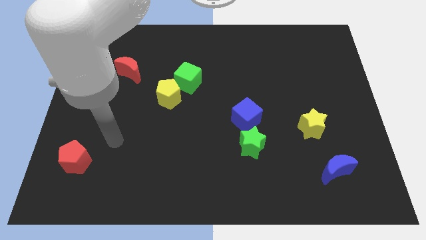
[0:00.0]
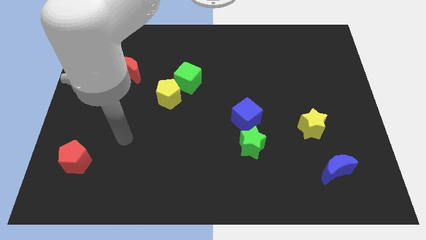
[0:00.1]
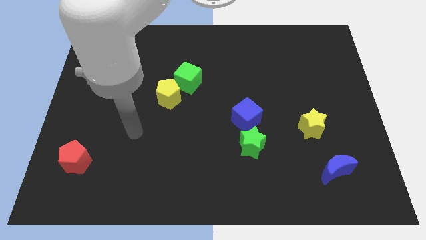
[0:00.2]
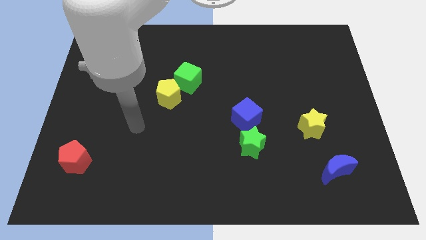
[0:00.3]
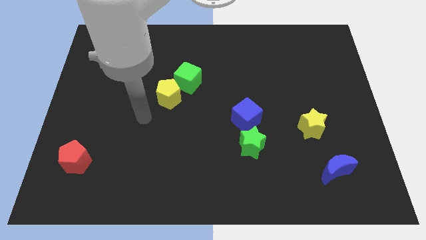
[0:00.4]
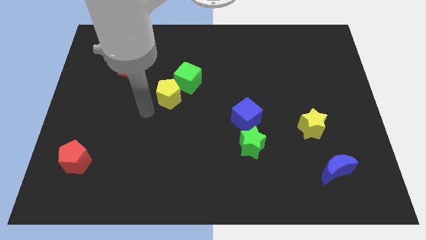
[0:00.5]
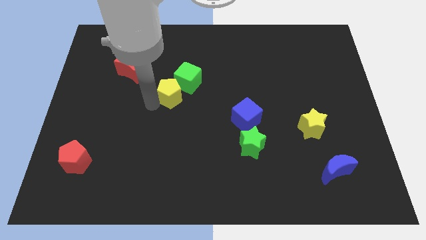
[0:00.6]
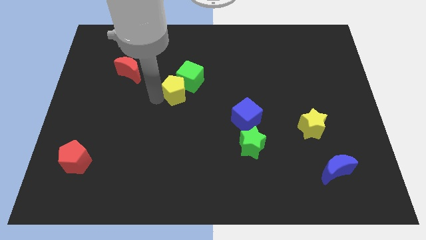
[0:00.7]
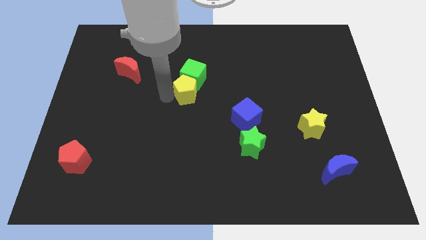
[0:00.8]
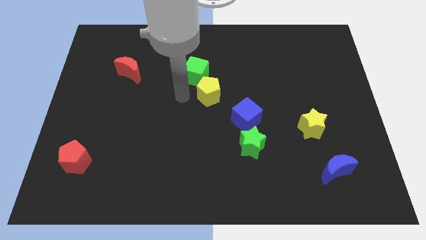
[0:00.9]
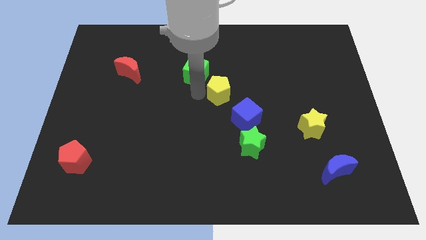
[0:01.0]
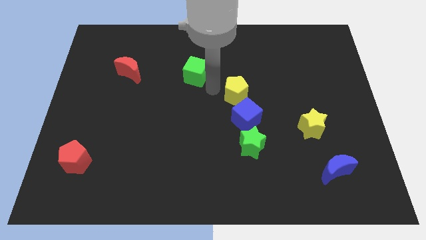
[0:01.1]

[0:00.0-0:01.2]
move the green cube away from the yellow pentagon

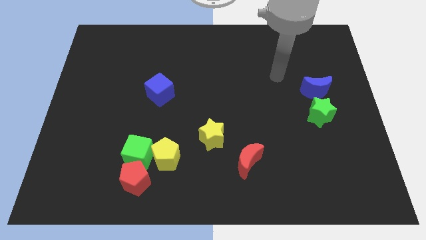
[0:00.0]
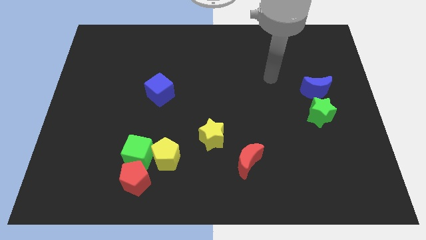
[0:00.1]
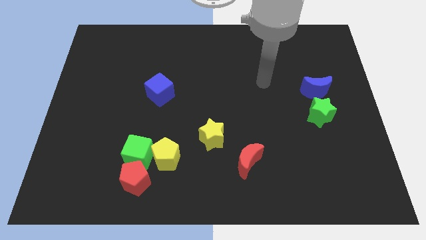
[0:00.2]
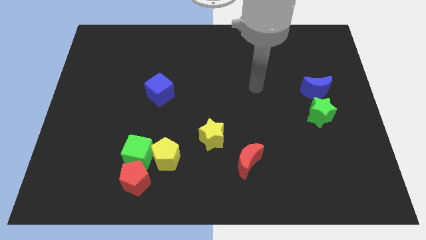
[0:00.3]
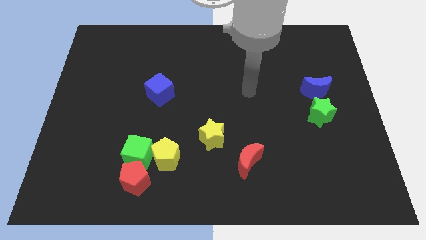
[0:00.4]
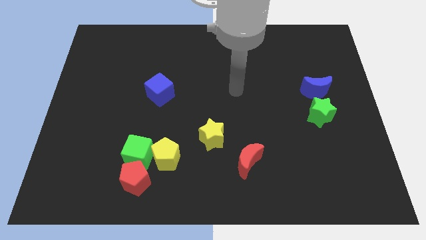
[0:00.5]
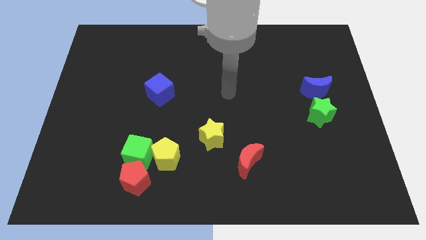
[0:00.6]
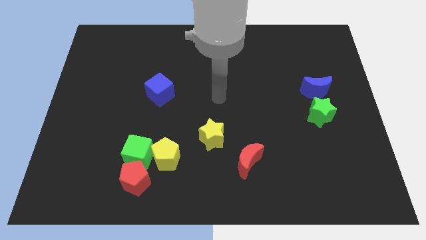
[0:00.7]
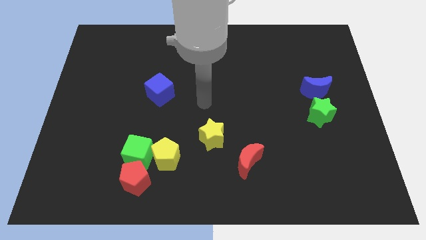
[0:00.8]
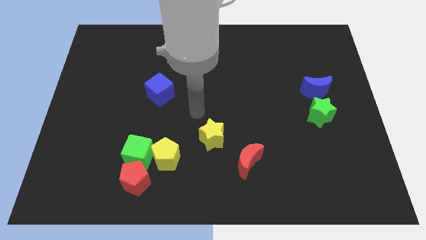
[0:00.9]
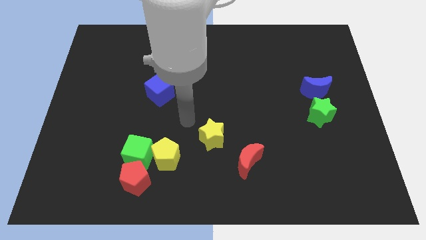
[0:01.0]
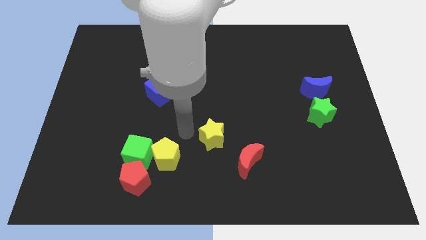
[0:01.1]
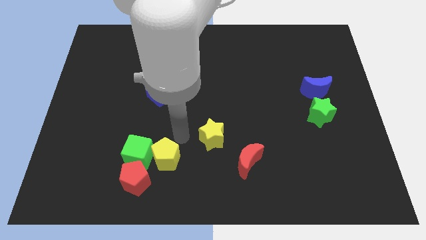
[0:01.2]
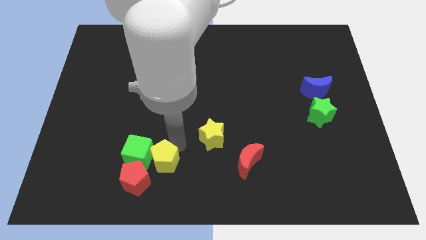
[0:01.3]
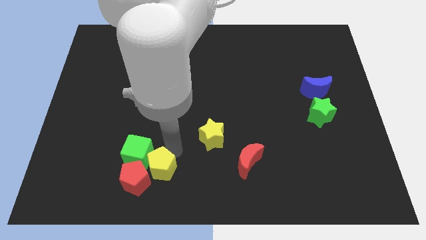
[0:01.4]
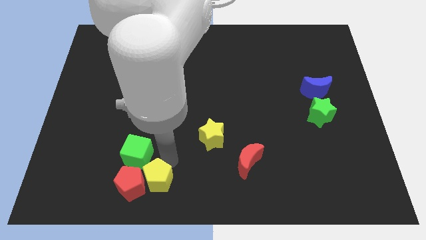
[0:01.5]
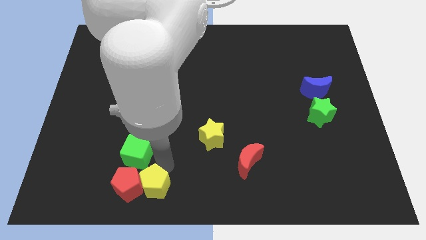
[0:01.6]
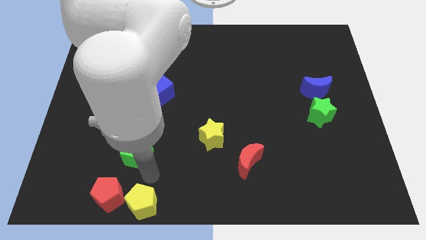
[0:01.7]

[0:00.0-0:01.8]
move the green cube away from the red pentagon and yellow pentagon

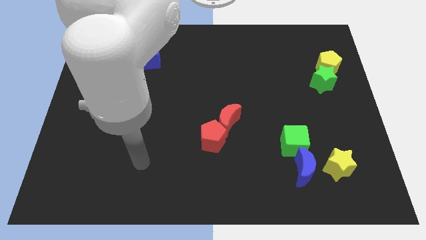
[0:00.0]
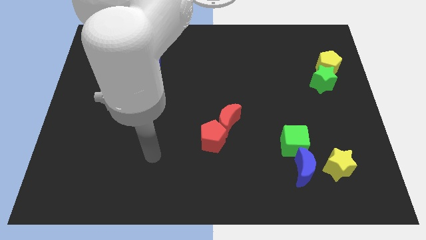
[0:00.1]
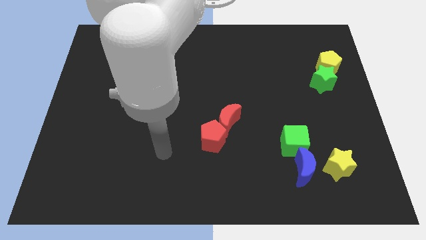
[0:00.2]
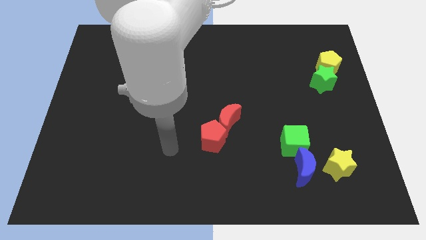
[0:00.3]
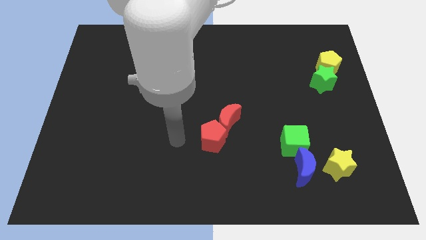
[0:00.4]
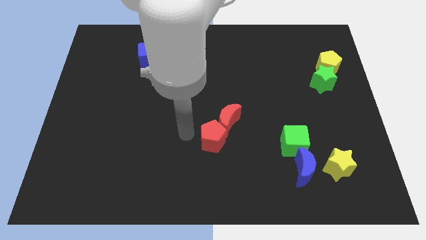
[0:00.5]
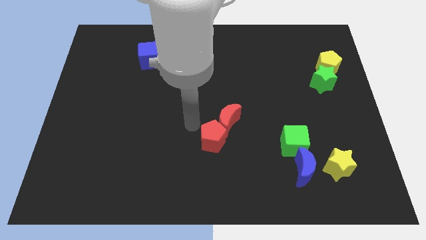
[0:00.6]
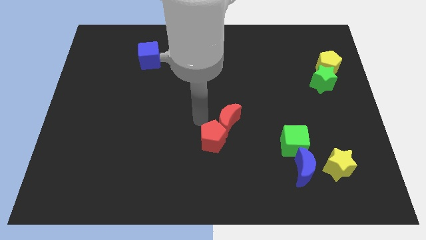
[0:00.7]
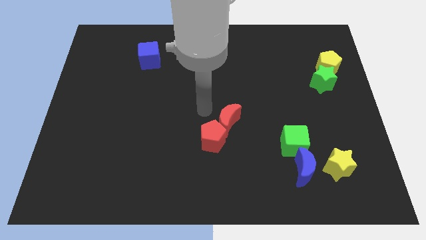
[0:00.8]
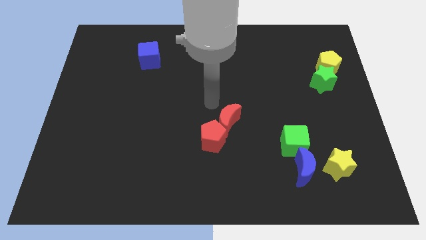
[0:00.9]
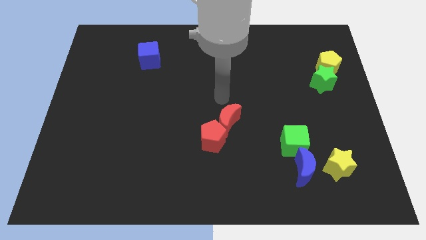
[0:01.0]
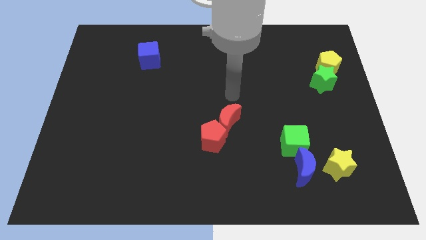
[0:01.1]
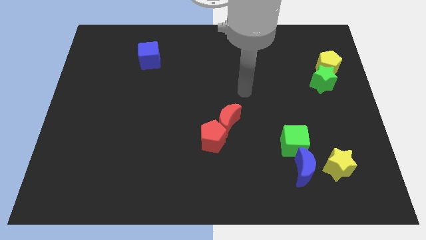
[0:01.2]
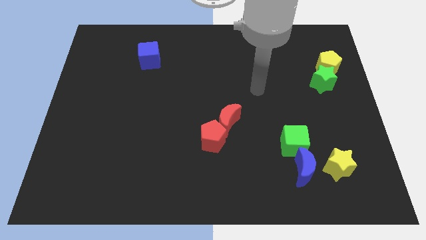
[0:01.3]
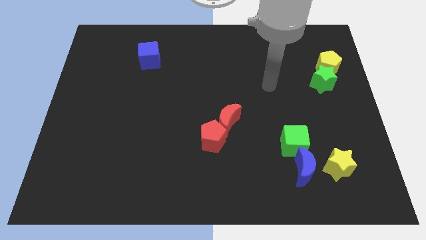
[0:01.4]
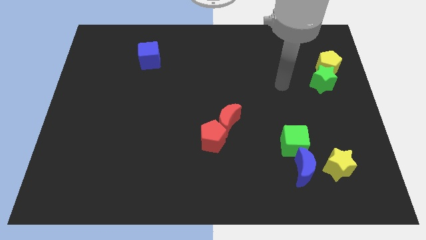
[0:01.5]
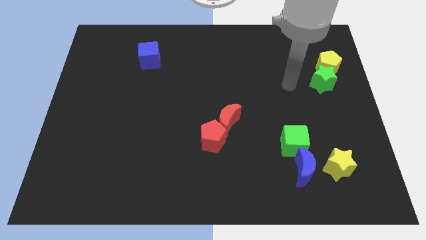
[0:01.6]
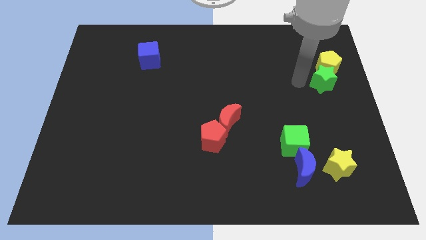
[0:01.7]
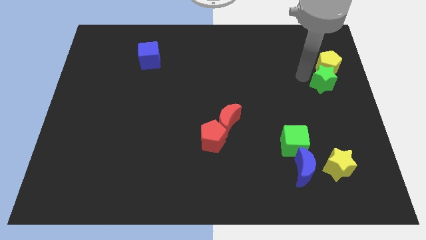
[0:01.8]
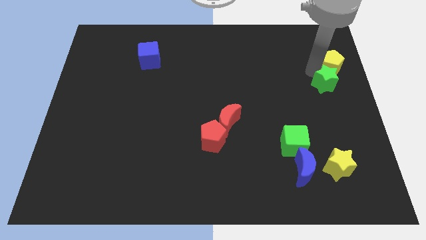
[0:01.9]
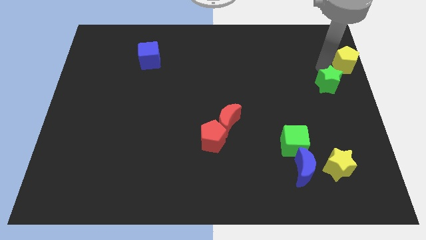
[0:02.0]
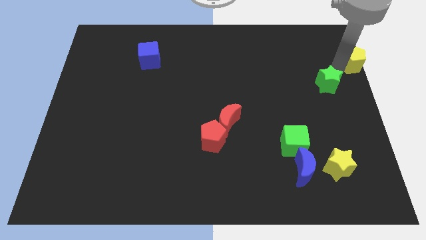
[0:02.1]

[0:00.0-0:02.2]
pull the green star apart from the yellow pentagon

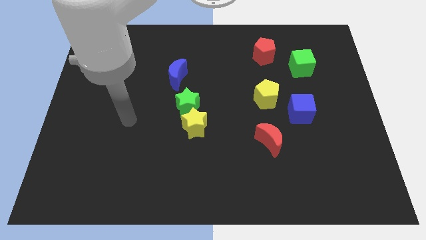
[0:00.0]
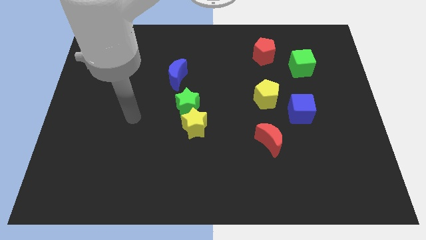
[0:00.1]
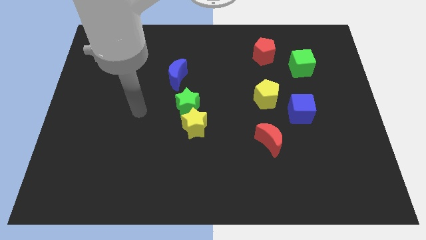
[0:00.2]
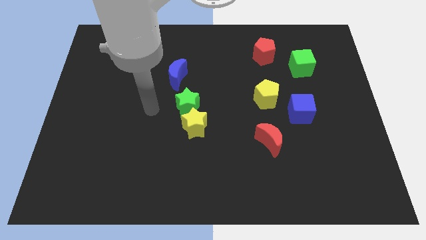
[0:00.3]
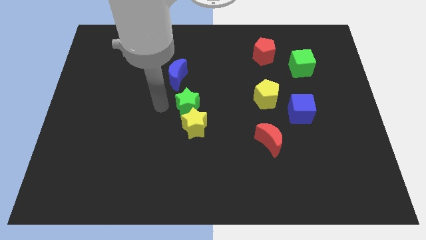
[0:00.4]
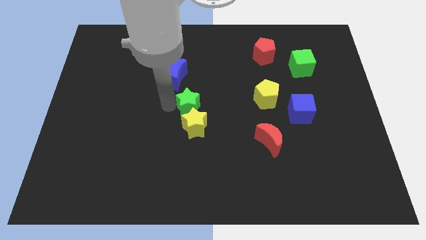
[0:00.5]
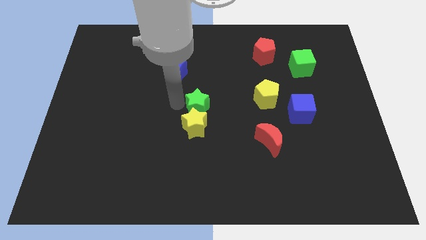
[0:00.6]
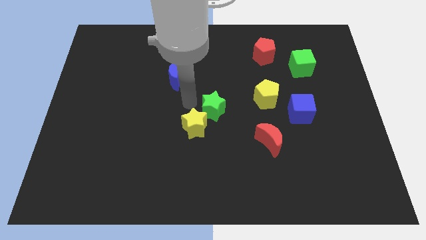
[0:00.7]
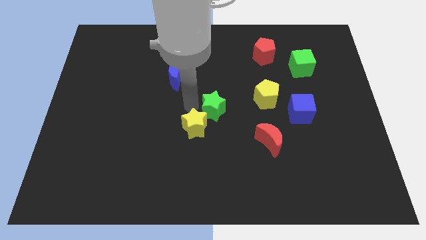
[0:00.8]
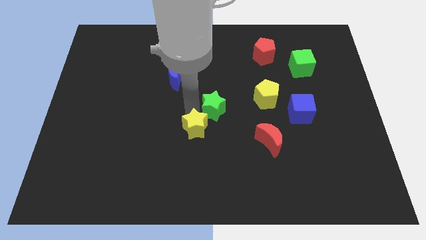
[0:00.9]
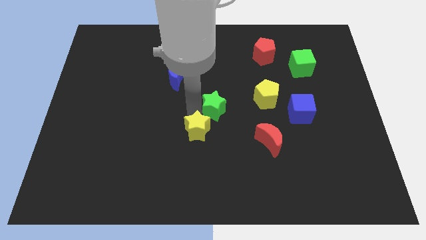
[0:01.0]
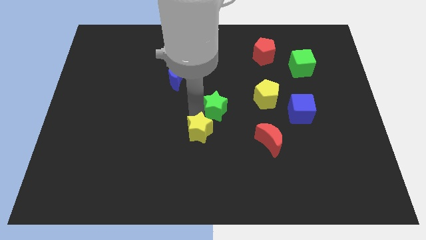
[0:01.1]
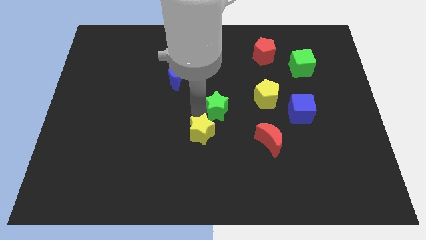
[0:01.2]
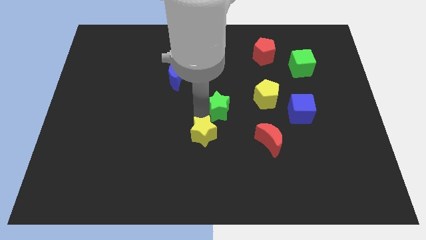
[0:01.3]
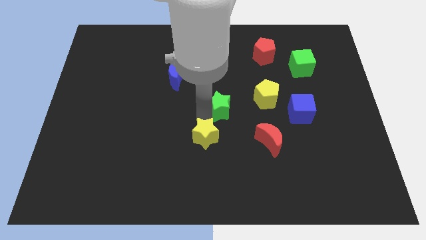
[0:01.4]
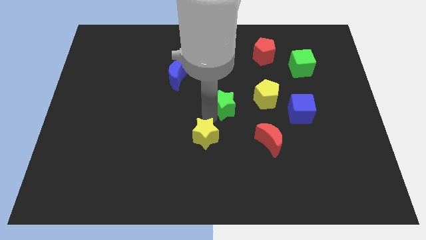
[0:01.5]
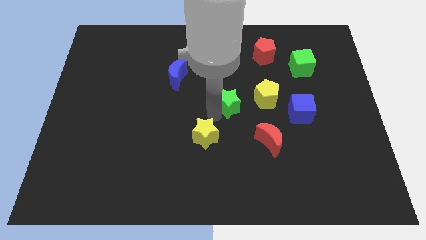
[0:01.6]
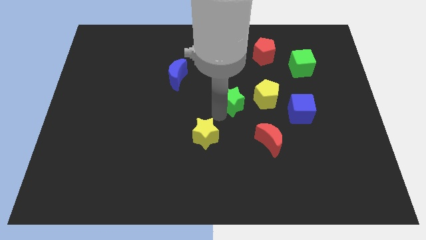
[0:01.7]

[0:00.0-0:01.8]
pull the yellow star apart from the green star

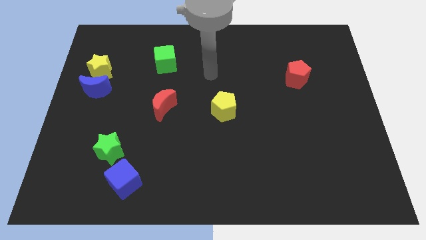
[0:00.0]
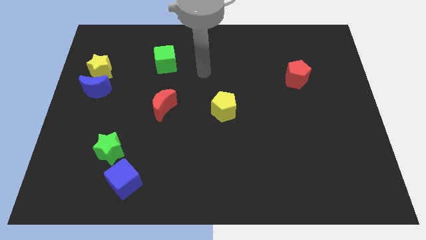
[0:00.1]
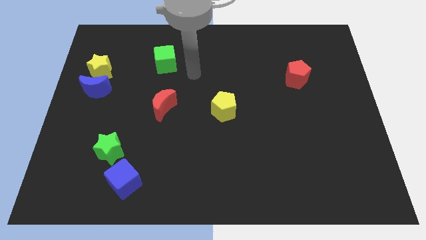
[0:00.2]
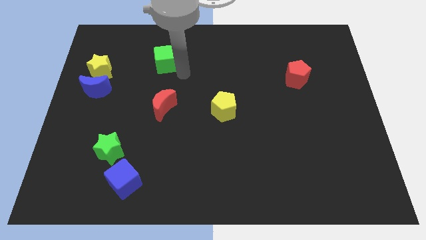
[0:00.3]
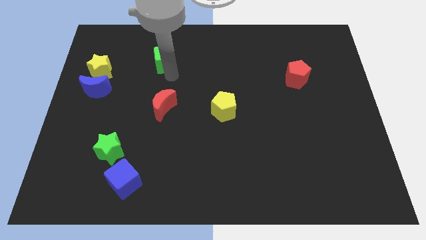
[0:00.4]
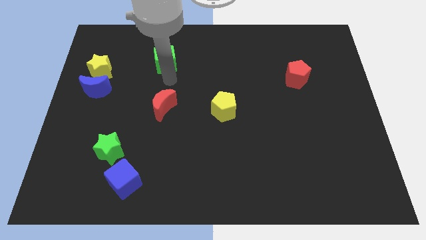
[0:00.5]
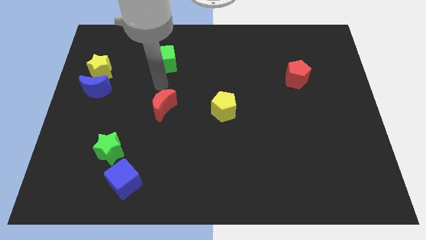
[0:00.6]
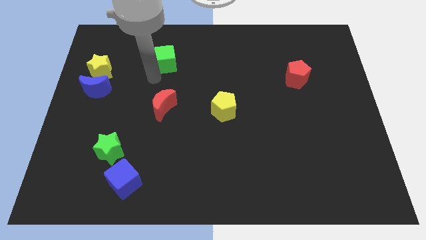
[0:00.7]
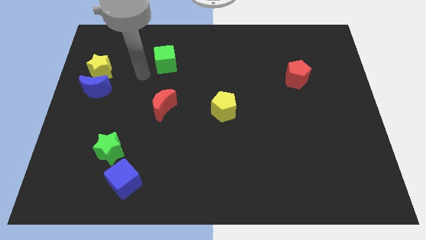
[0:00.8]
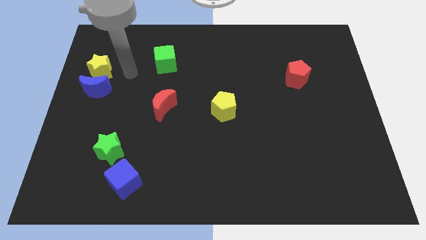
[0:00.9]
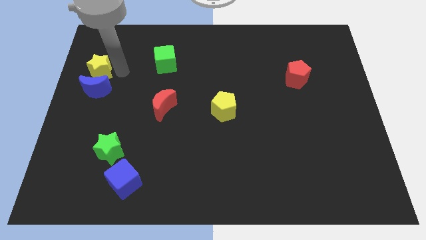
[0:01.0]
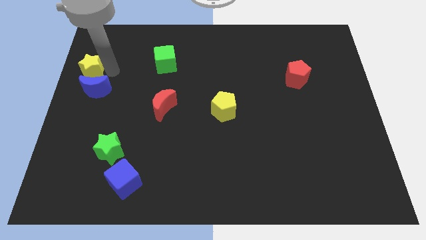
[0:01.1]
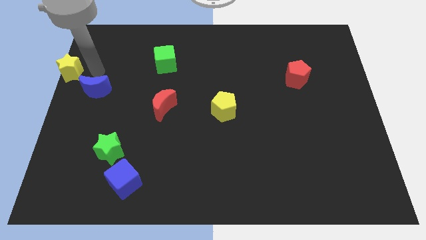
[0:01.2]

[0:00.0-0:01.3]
pull the blue moon apart from the yellow star

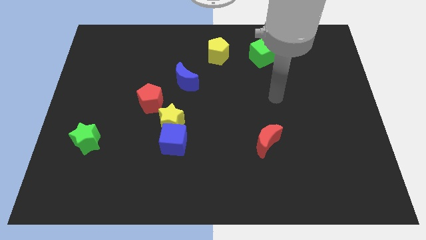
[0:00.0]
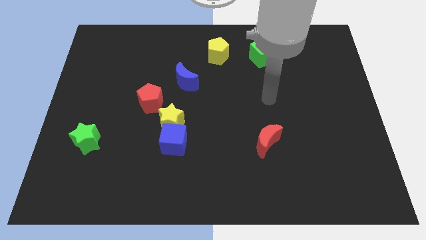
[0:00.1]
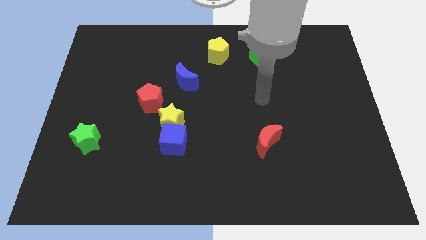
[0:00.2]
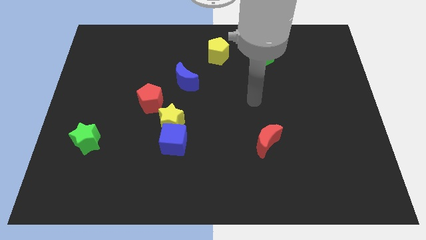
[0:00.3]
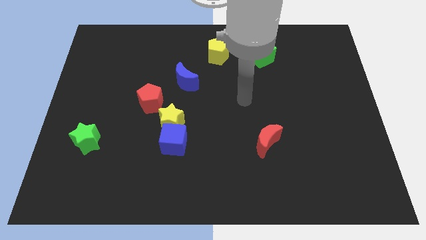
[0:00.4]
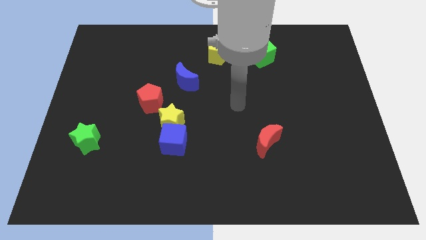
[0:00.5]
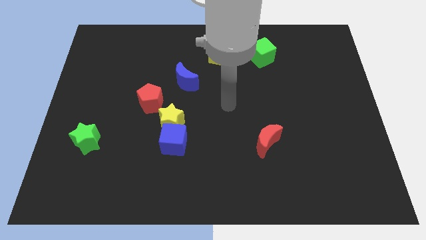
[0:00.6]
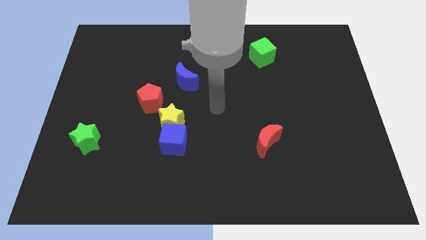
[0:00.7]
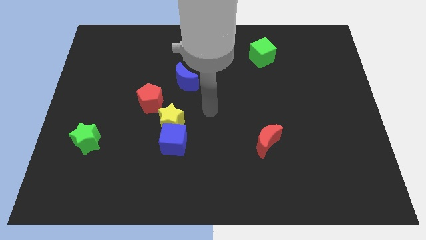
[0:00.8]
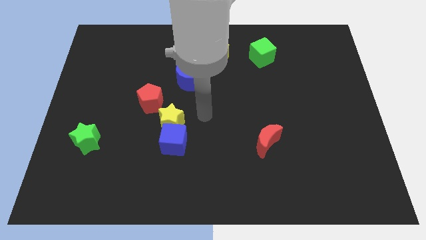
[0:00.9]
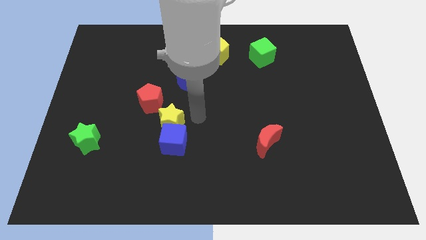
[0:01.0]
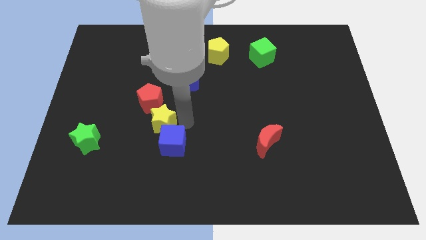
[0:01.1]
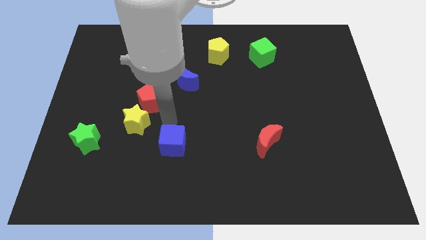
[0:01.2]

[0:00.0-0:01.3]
pull the blue cube apart from the yellow star
